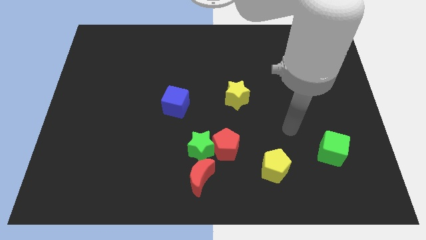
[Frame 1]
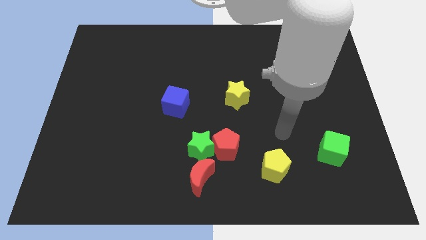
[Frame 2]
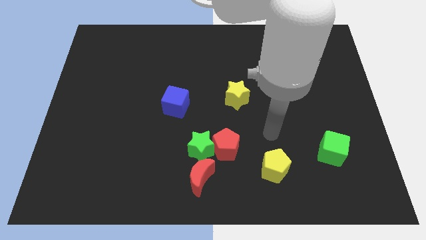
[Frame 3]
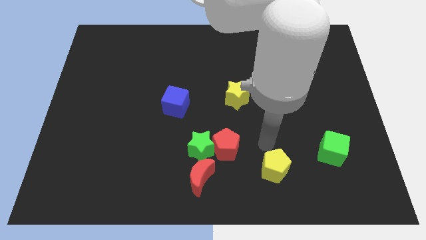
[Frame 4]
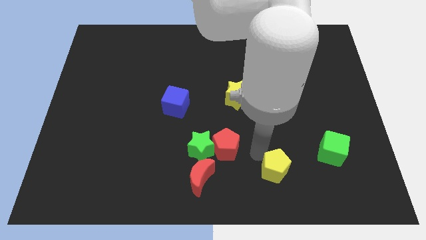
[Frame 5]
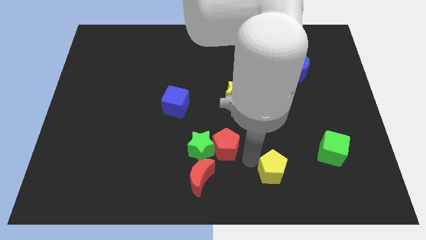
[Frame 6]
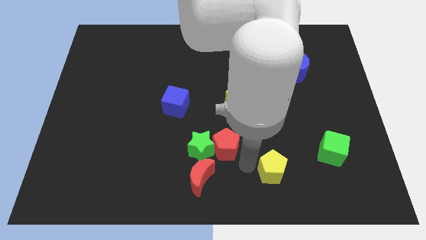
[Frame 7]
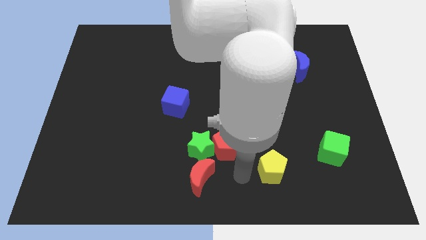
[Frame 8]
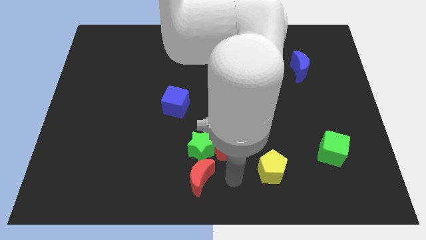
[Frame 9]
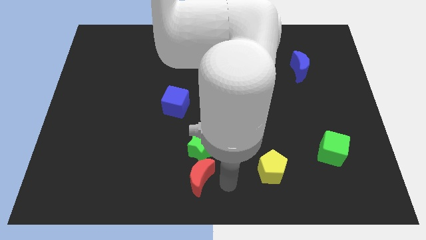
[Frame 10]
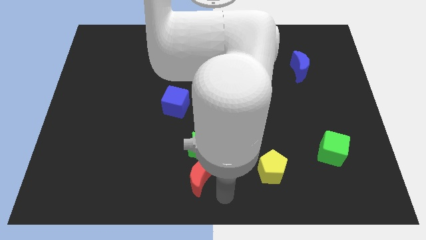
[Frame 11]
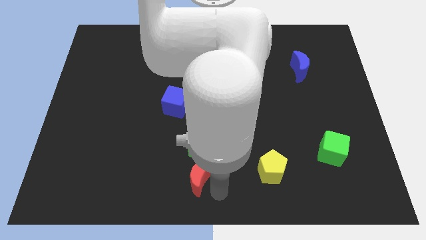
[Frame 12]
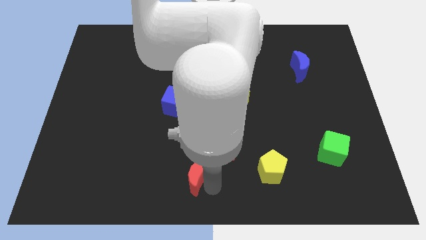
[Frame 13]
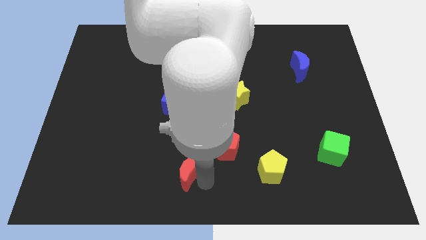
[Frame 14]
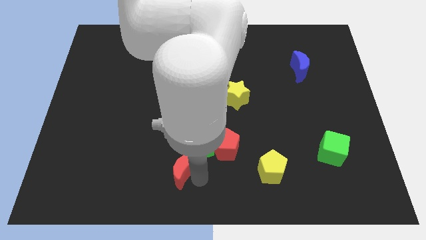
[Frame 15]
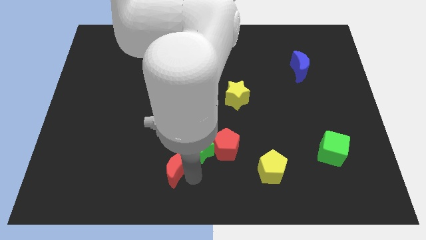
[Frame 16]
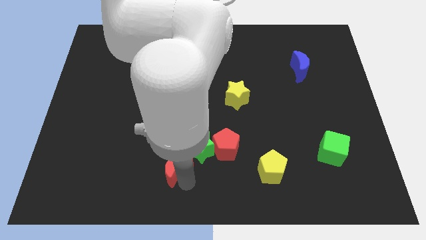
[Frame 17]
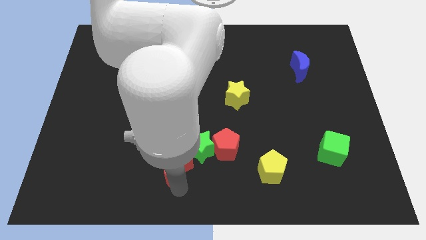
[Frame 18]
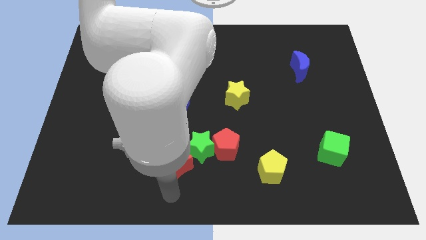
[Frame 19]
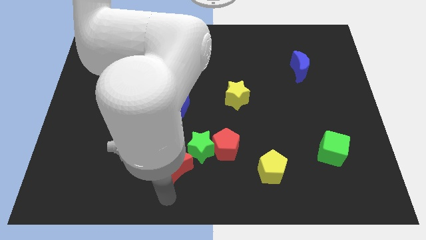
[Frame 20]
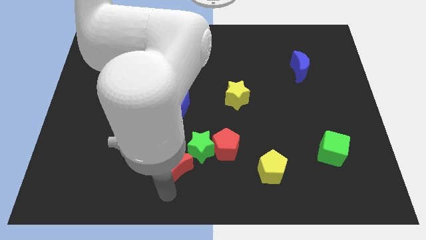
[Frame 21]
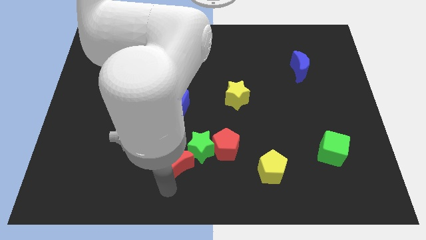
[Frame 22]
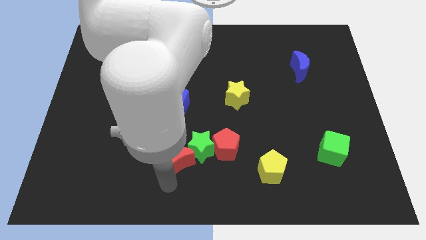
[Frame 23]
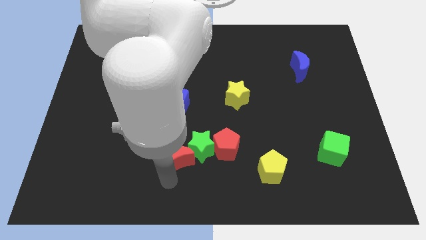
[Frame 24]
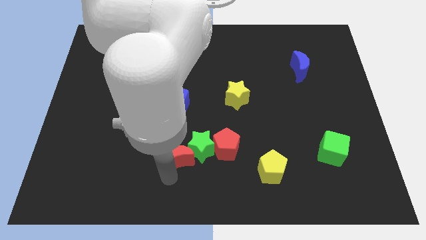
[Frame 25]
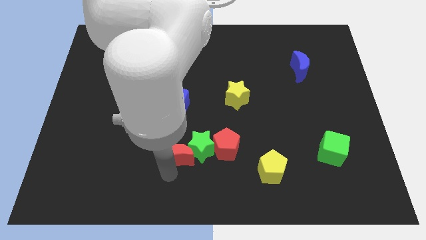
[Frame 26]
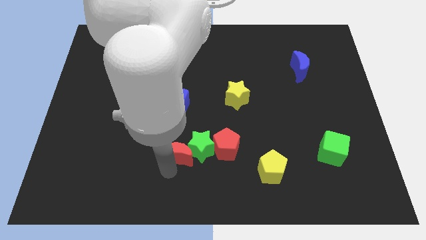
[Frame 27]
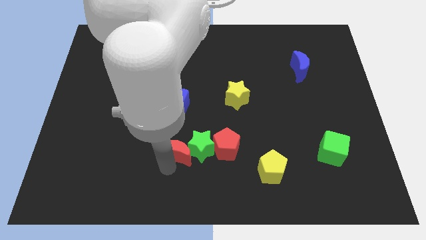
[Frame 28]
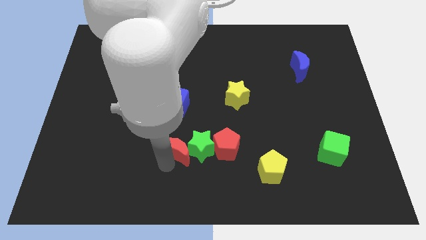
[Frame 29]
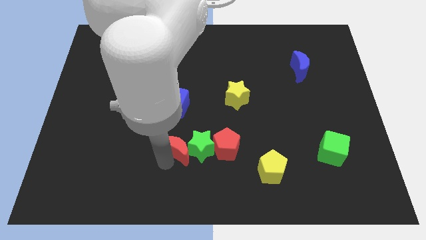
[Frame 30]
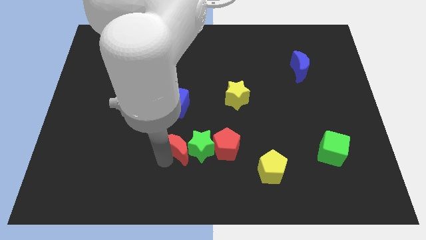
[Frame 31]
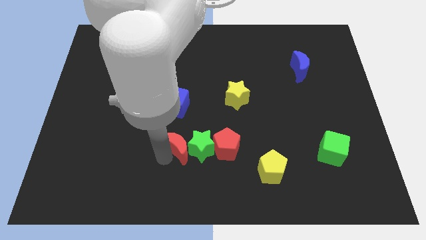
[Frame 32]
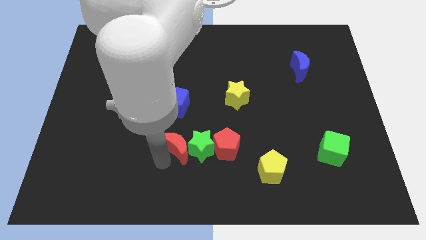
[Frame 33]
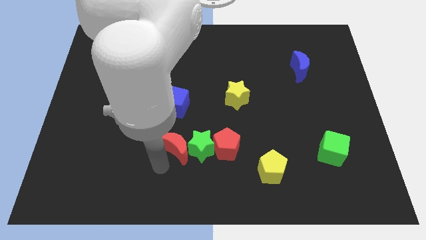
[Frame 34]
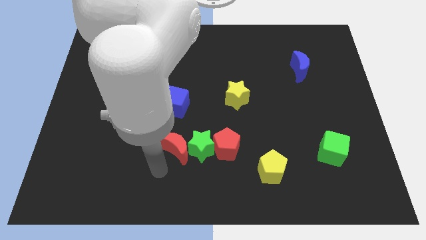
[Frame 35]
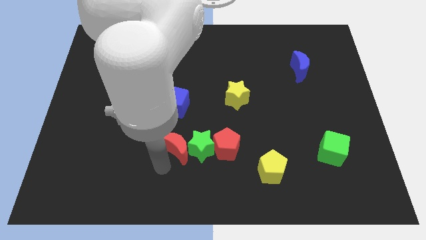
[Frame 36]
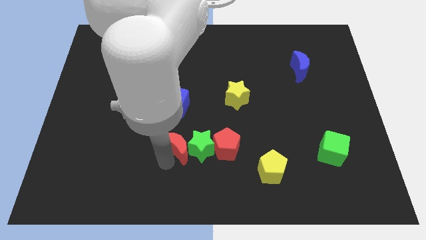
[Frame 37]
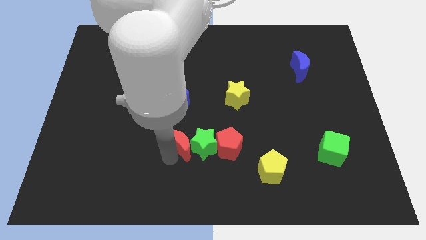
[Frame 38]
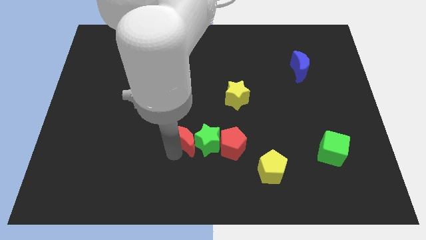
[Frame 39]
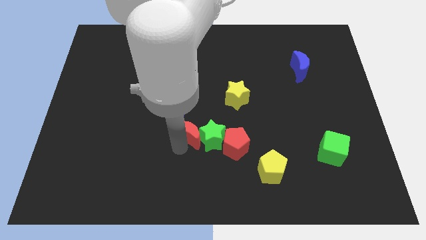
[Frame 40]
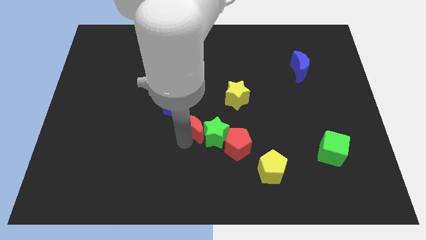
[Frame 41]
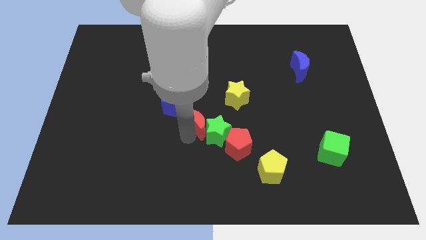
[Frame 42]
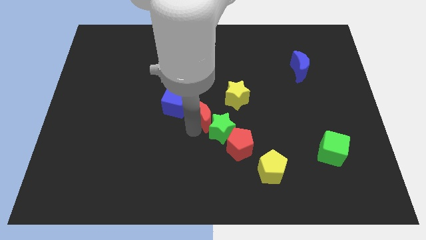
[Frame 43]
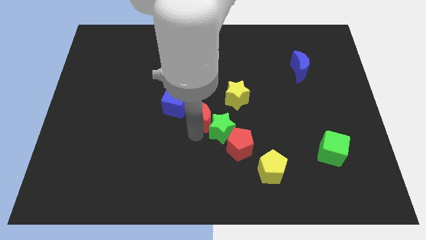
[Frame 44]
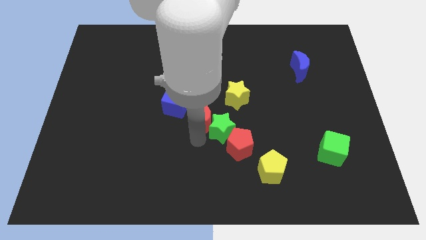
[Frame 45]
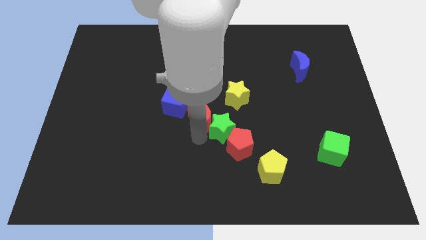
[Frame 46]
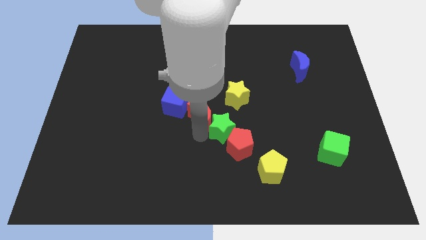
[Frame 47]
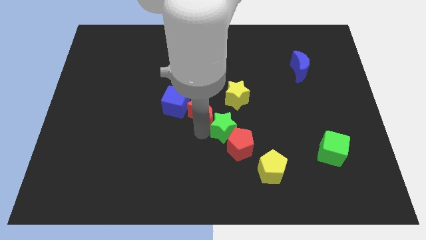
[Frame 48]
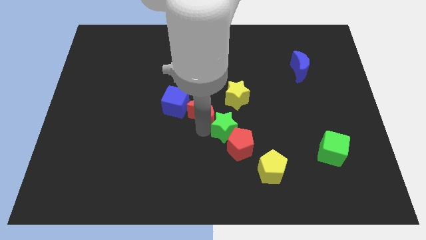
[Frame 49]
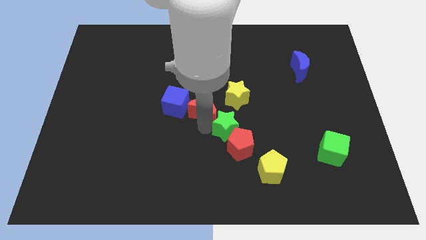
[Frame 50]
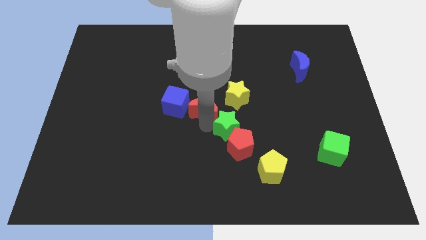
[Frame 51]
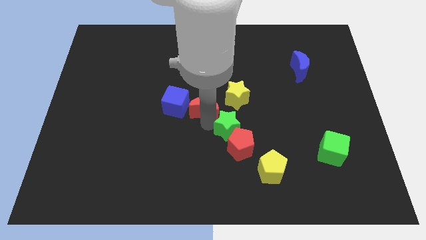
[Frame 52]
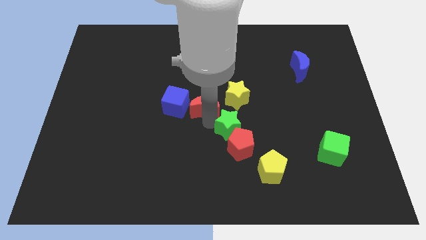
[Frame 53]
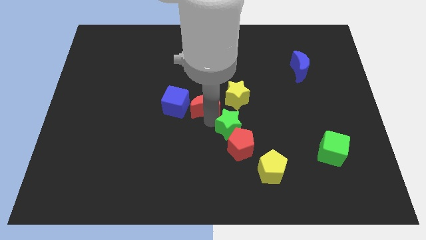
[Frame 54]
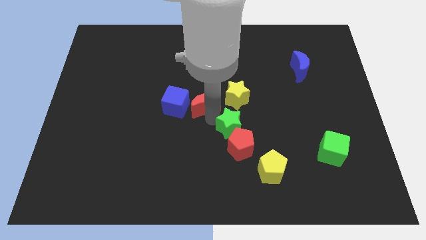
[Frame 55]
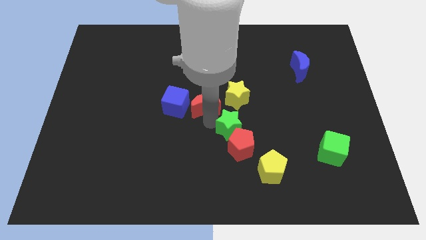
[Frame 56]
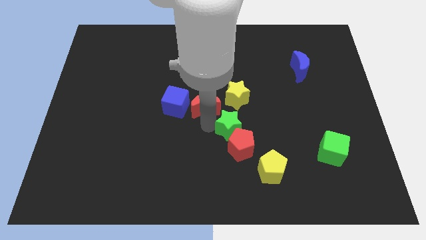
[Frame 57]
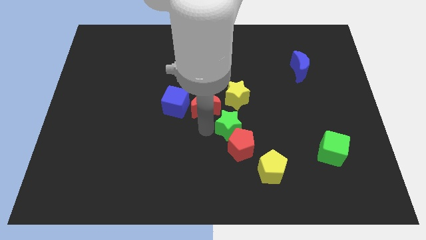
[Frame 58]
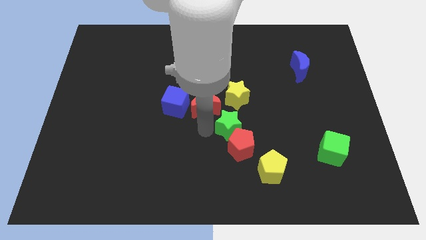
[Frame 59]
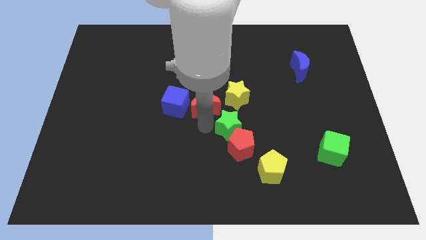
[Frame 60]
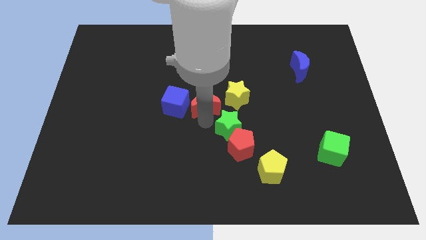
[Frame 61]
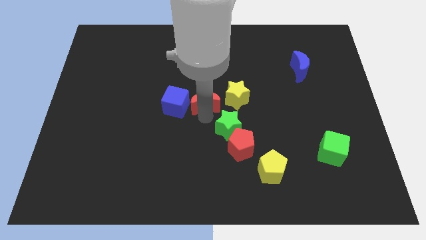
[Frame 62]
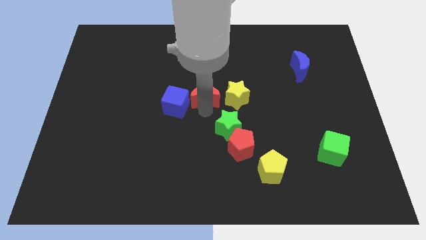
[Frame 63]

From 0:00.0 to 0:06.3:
move the red moon upwards

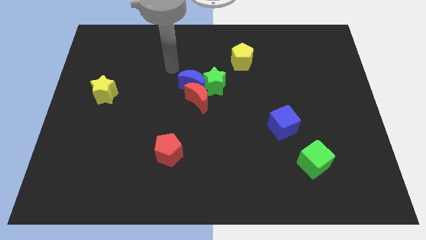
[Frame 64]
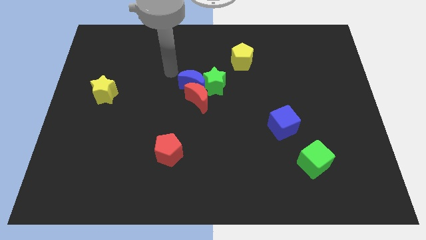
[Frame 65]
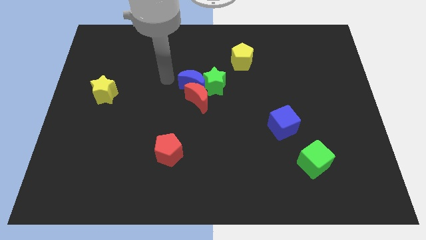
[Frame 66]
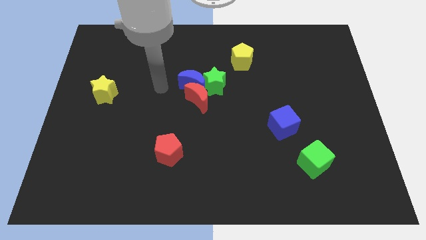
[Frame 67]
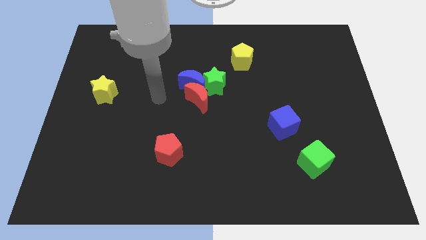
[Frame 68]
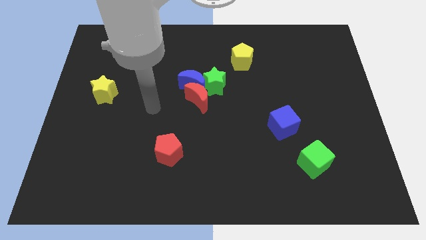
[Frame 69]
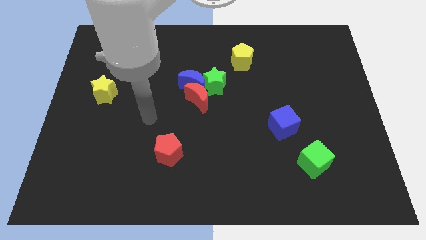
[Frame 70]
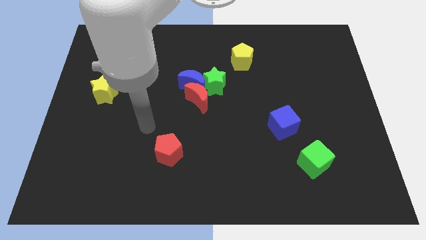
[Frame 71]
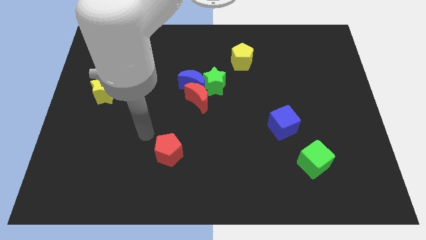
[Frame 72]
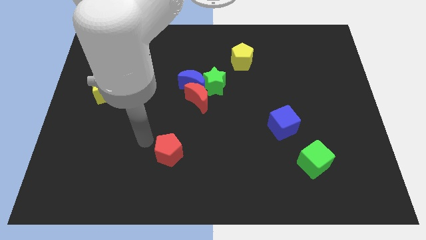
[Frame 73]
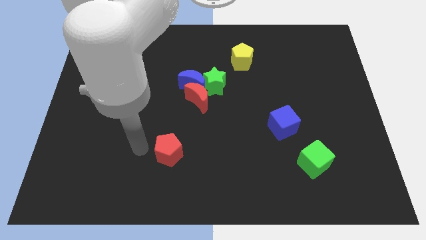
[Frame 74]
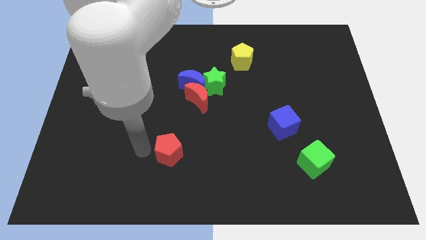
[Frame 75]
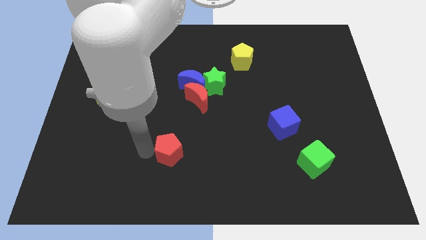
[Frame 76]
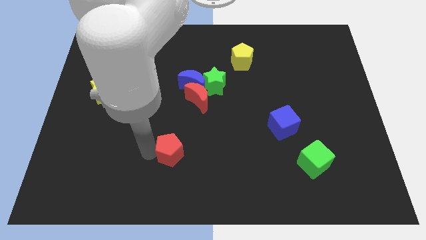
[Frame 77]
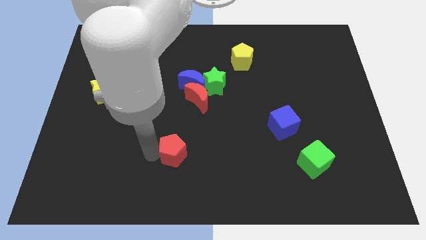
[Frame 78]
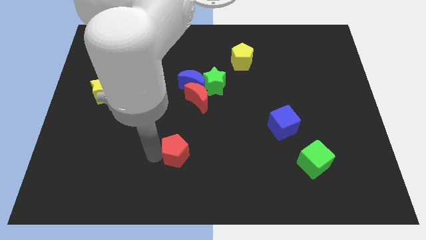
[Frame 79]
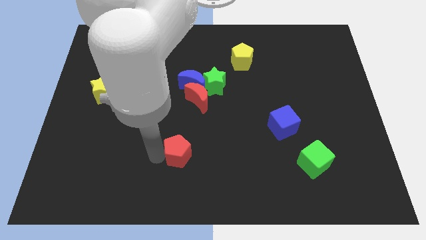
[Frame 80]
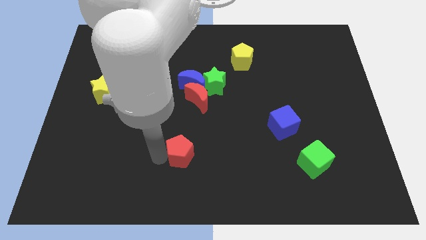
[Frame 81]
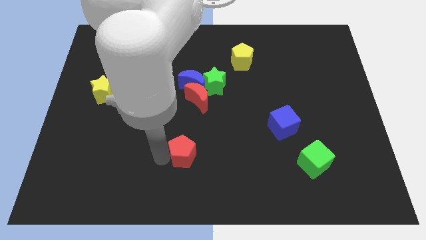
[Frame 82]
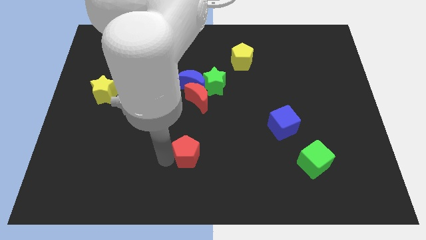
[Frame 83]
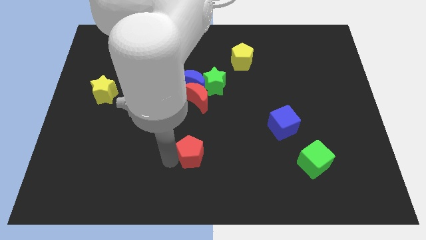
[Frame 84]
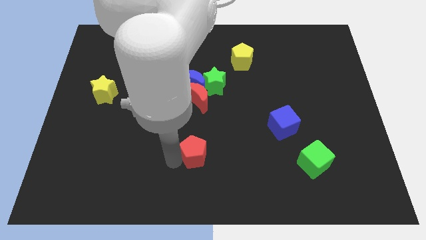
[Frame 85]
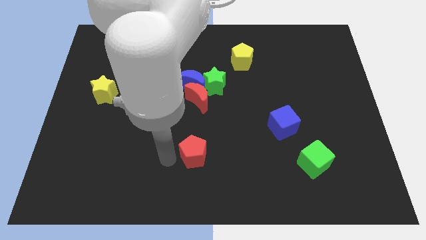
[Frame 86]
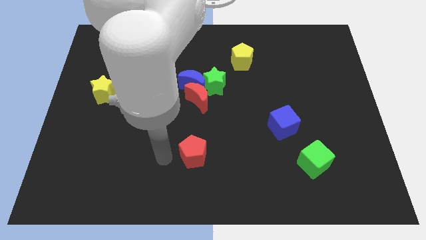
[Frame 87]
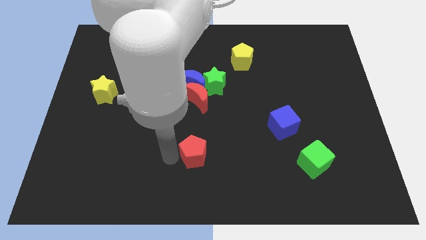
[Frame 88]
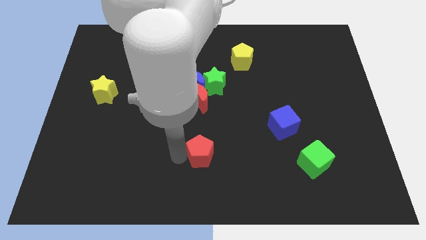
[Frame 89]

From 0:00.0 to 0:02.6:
slightly slide the red pentagon to the right
